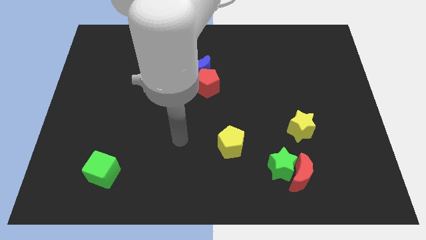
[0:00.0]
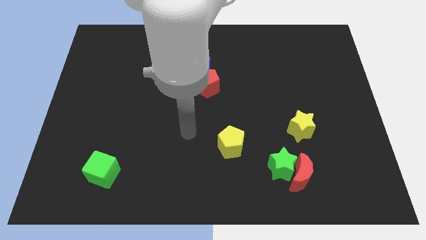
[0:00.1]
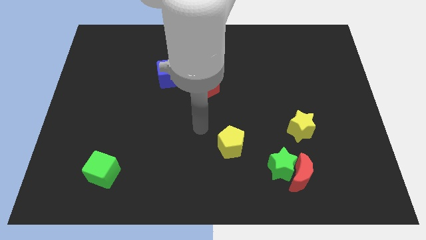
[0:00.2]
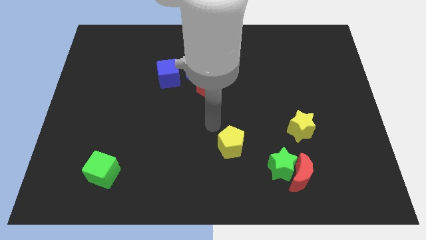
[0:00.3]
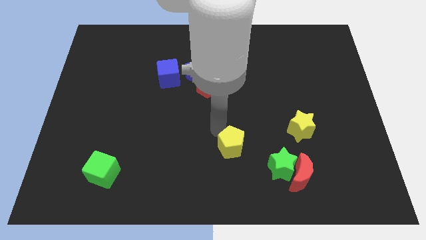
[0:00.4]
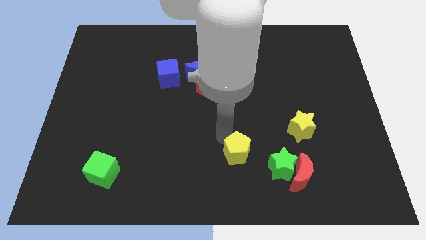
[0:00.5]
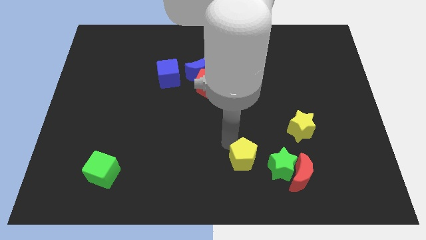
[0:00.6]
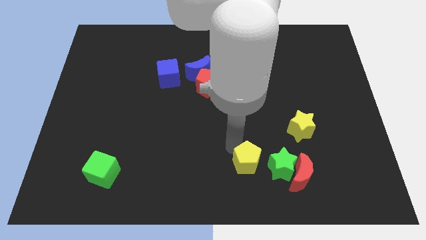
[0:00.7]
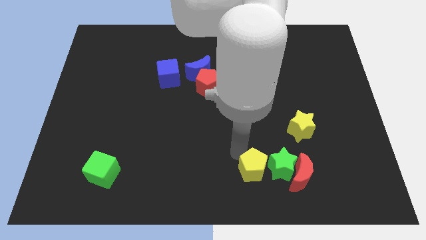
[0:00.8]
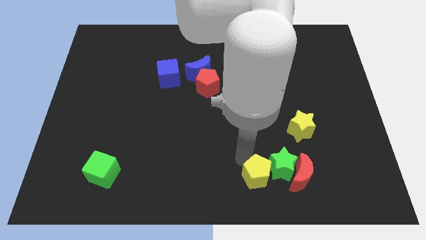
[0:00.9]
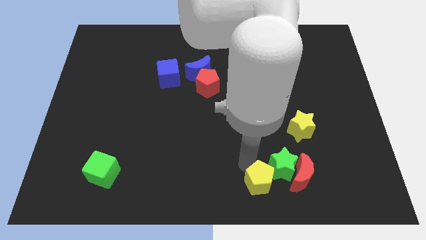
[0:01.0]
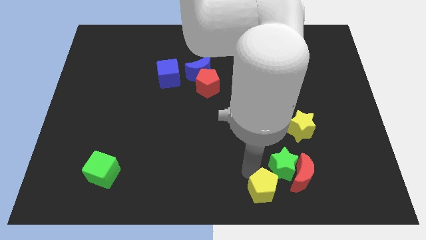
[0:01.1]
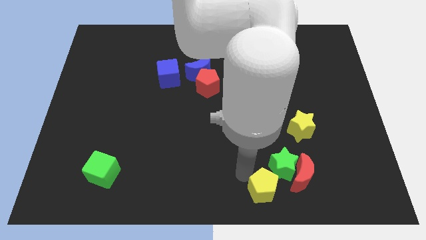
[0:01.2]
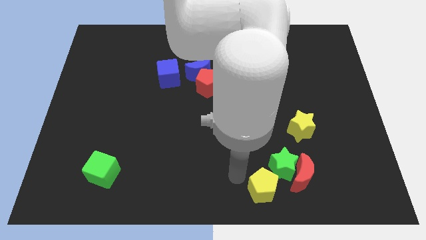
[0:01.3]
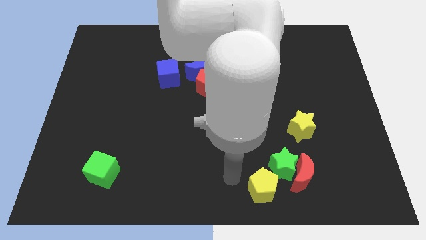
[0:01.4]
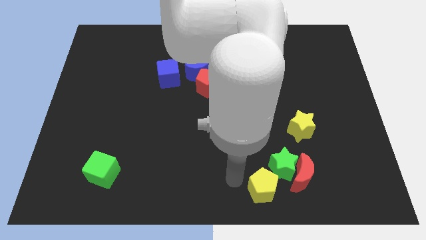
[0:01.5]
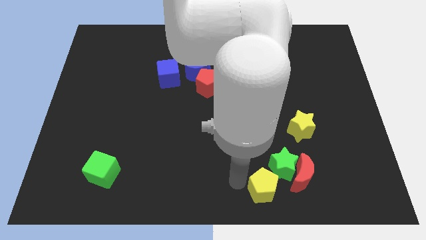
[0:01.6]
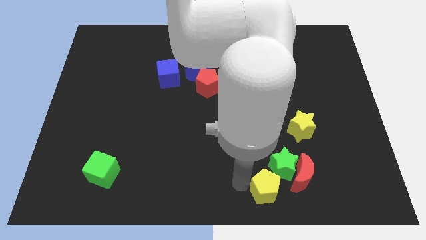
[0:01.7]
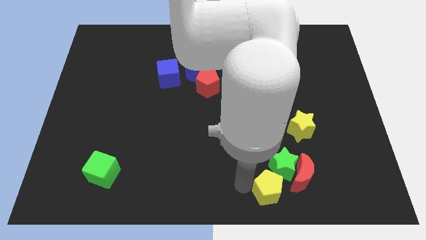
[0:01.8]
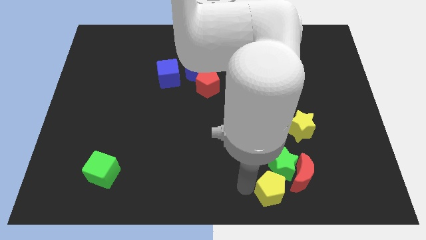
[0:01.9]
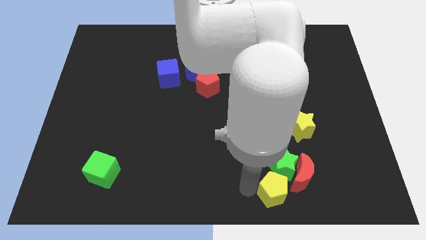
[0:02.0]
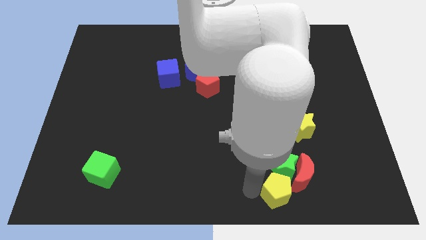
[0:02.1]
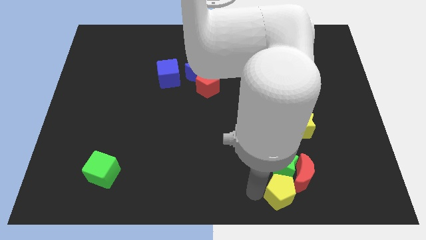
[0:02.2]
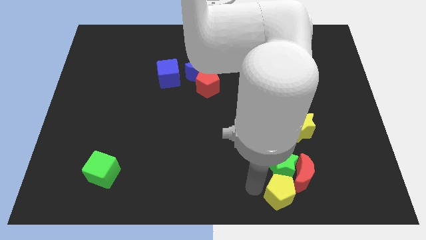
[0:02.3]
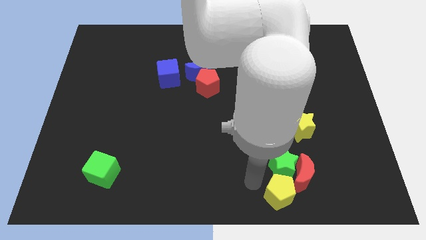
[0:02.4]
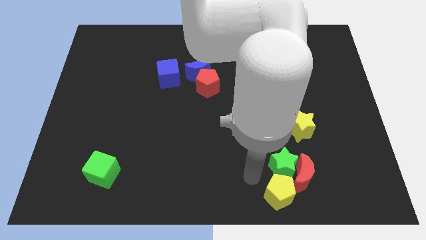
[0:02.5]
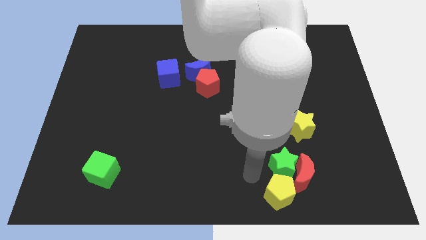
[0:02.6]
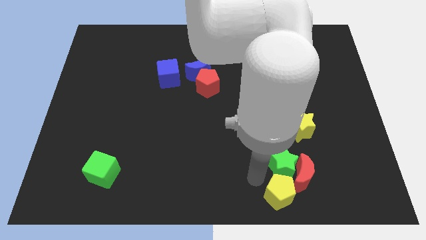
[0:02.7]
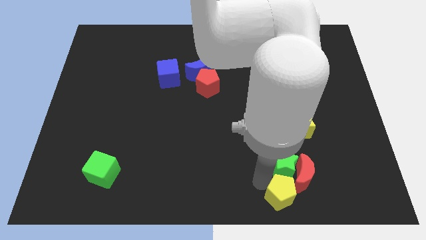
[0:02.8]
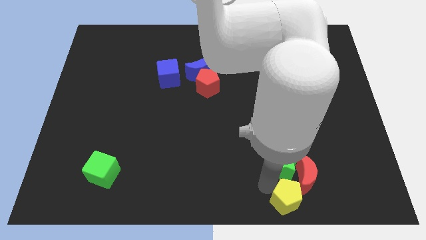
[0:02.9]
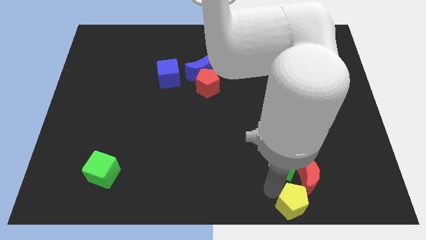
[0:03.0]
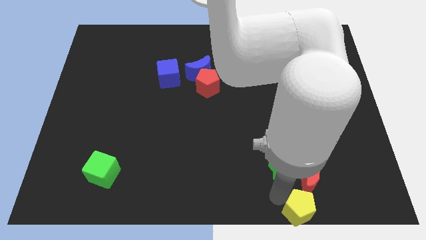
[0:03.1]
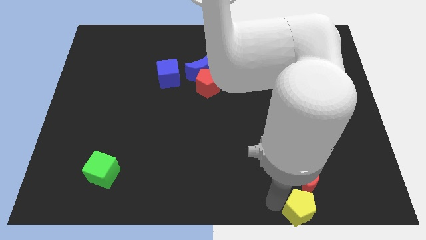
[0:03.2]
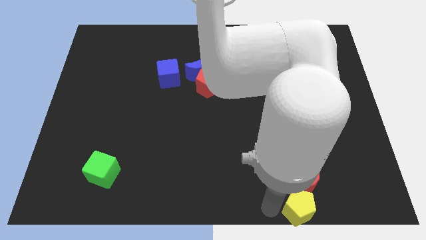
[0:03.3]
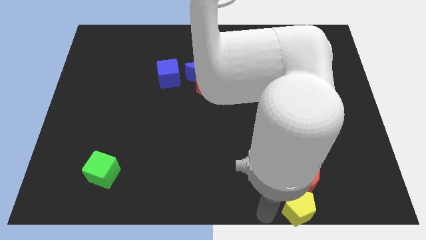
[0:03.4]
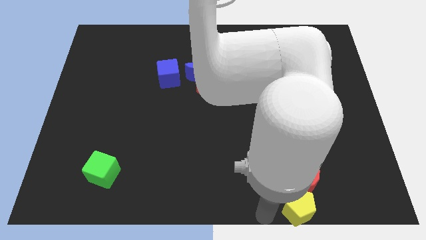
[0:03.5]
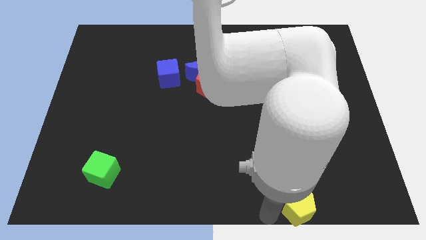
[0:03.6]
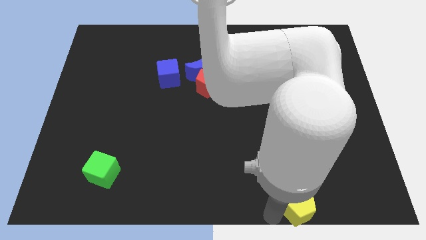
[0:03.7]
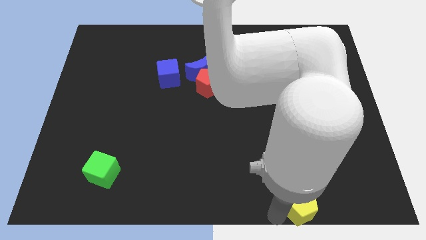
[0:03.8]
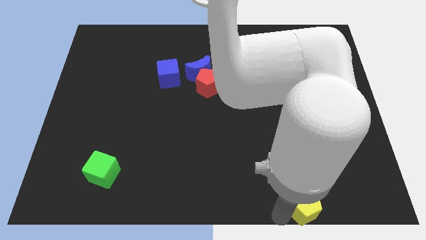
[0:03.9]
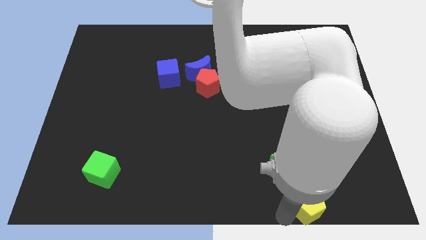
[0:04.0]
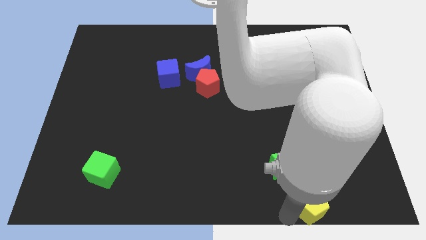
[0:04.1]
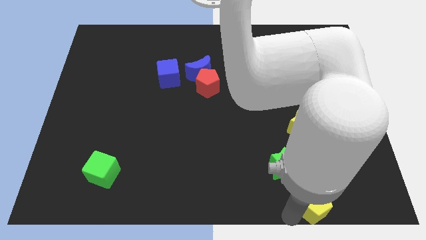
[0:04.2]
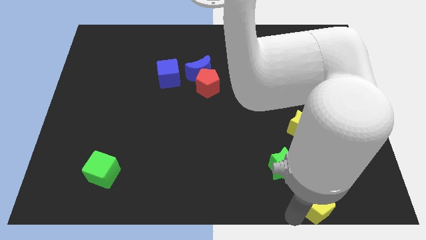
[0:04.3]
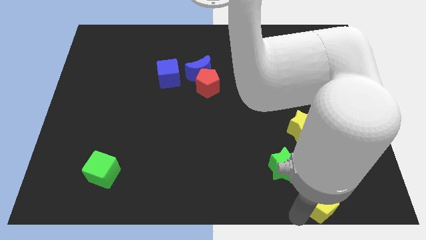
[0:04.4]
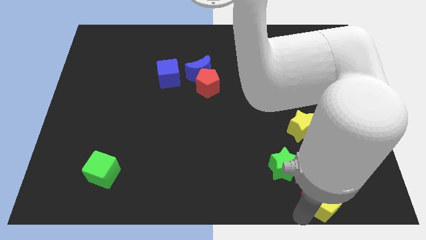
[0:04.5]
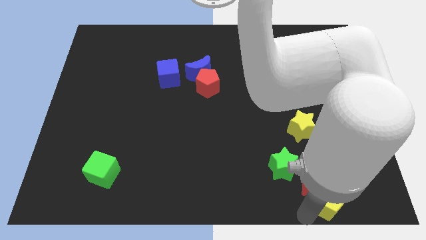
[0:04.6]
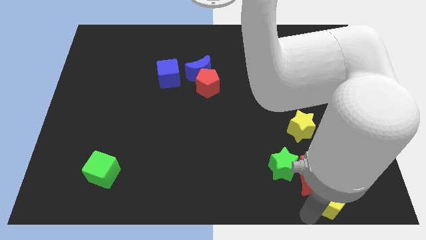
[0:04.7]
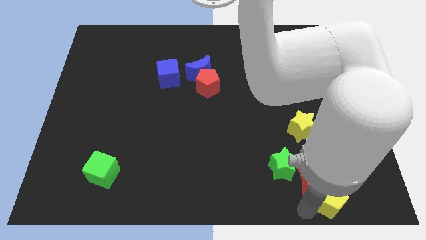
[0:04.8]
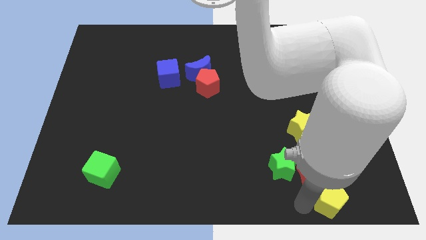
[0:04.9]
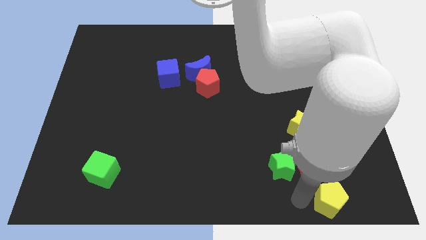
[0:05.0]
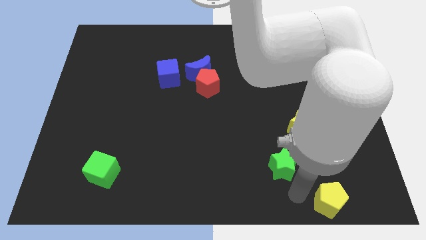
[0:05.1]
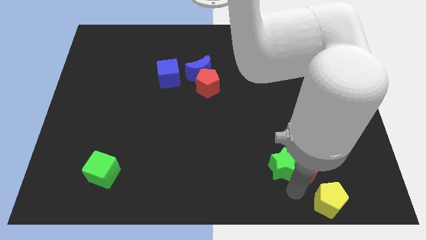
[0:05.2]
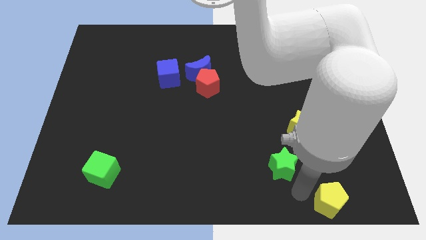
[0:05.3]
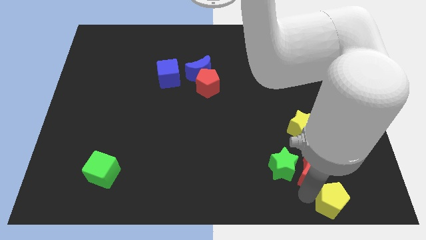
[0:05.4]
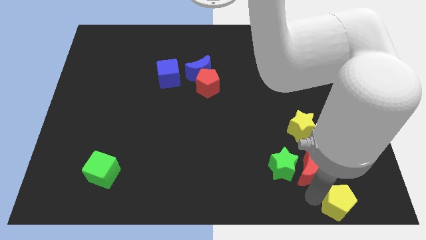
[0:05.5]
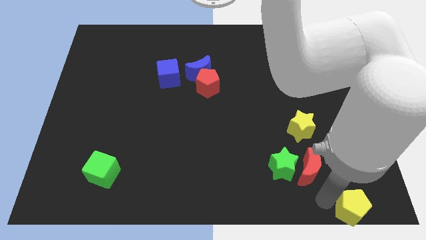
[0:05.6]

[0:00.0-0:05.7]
put the yellow pentagon to the bottom right
